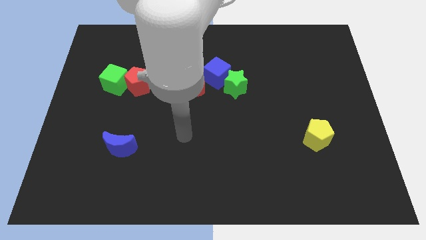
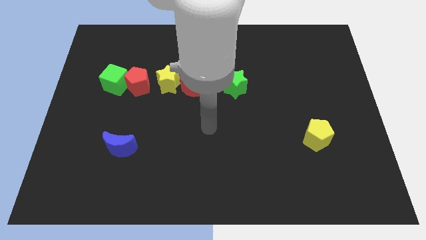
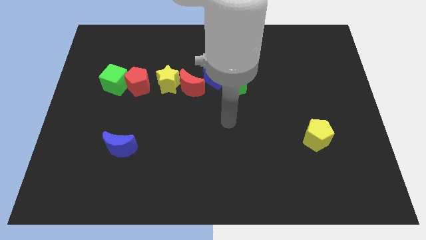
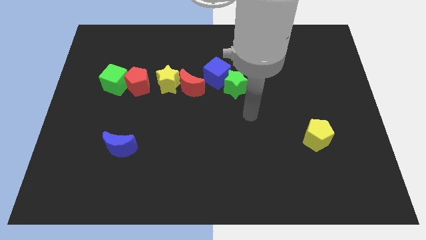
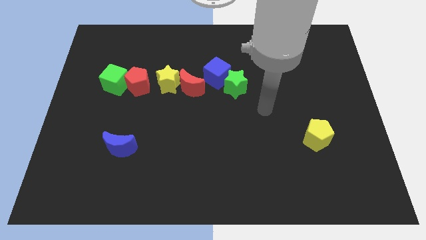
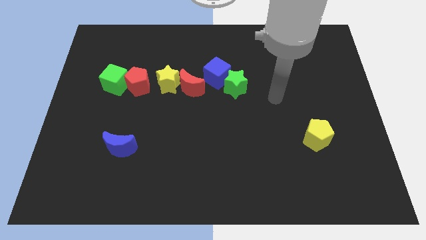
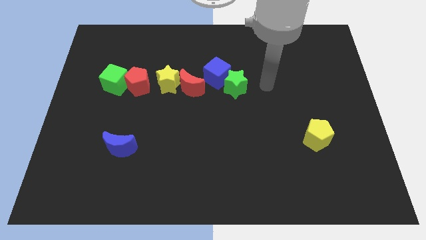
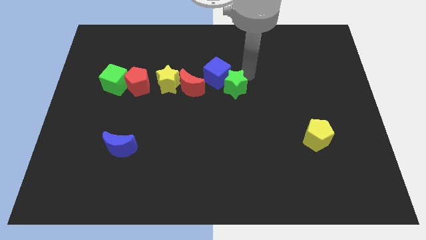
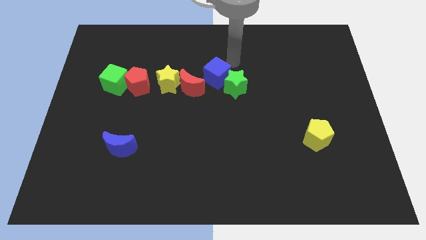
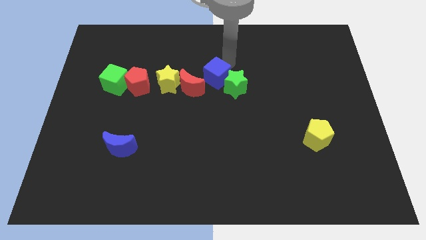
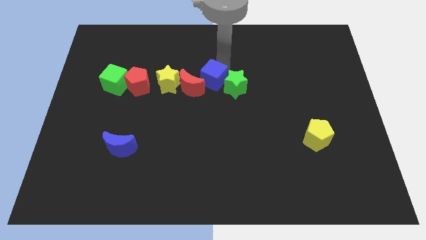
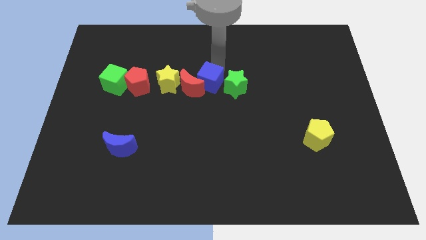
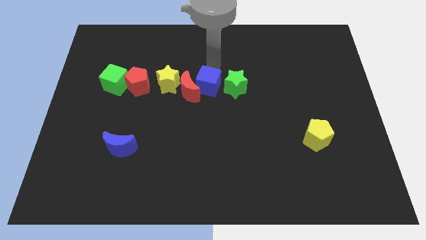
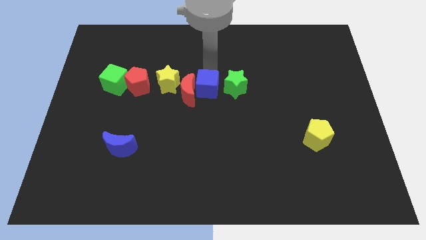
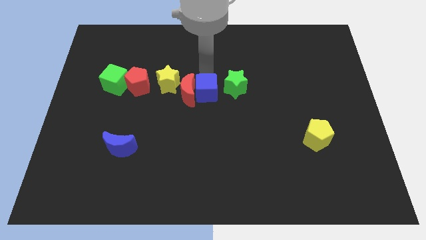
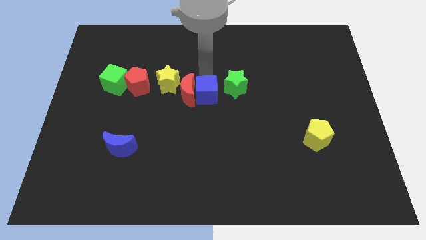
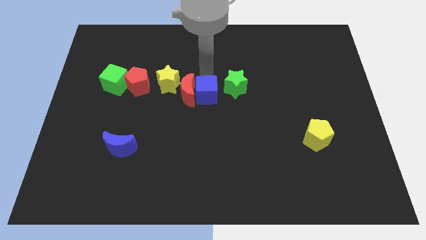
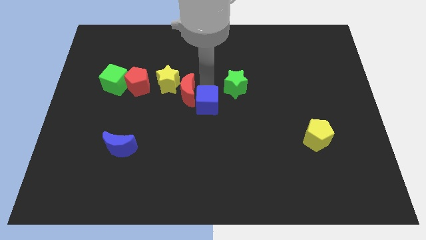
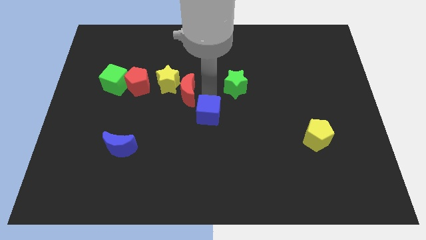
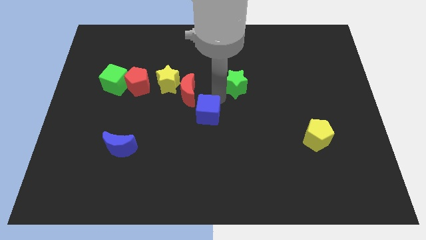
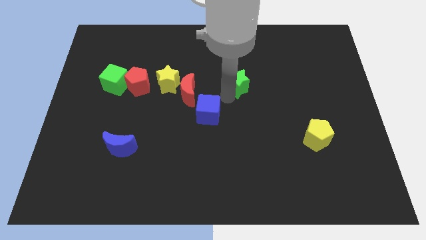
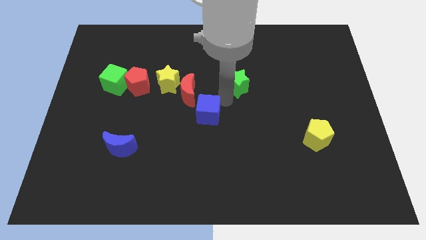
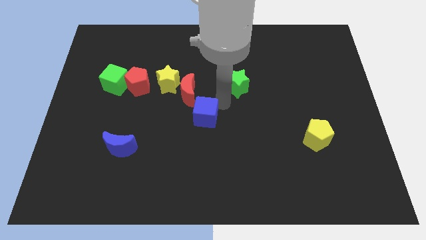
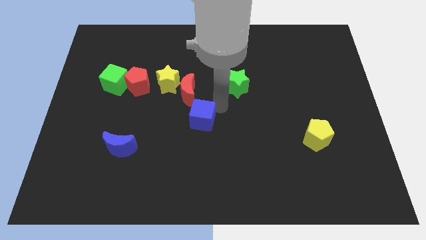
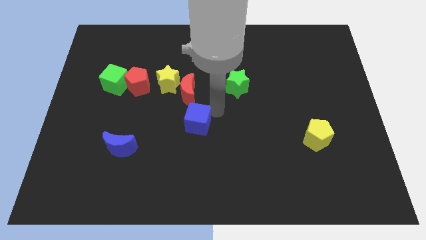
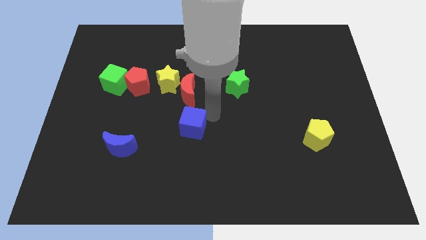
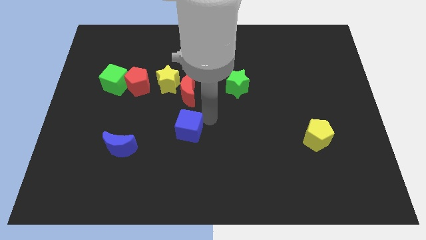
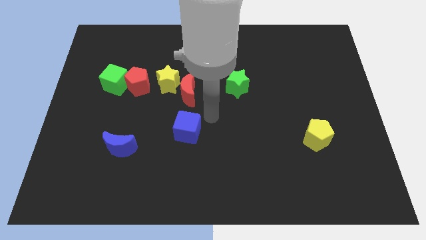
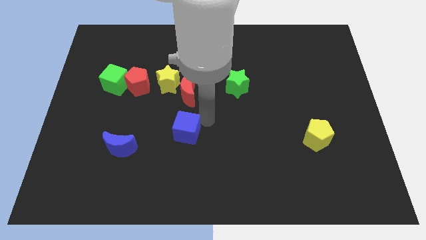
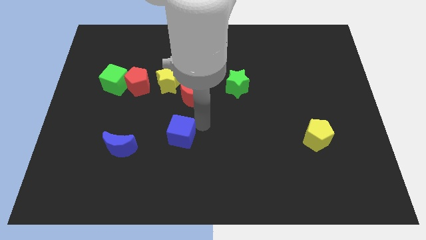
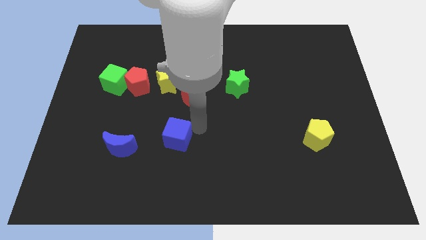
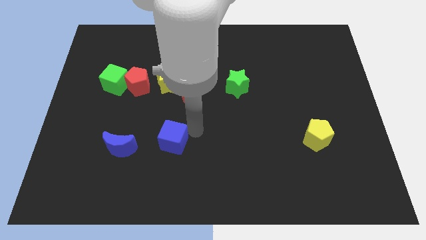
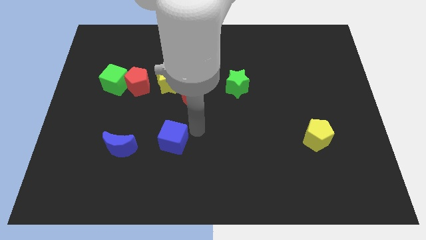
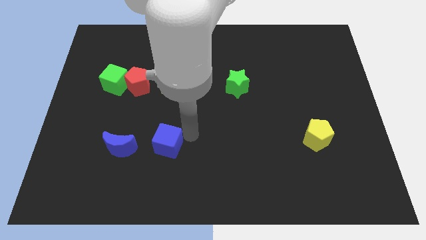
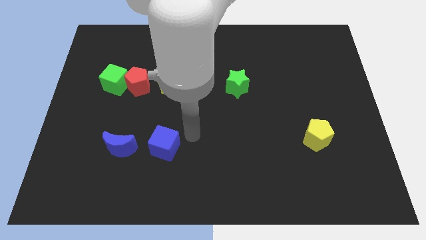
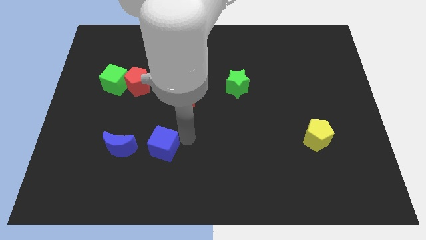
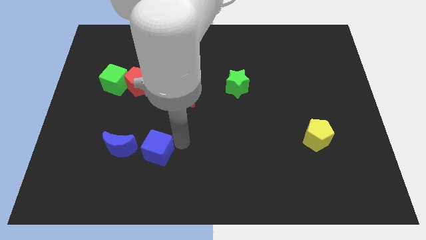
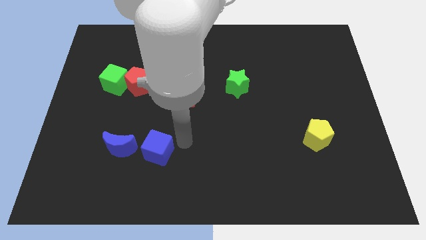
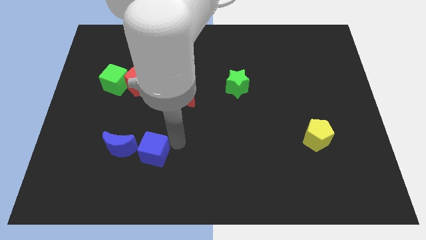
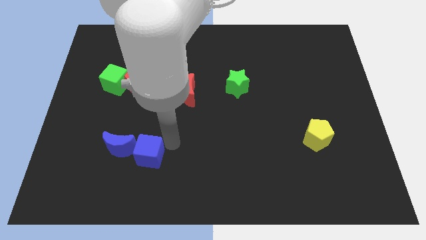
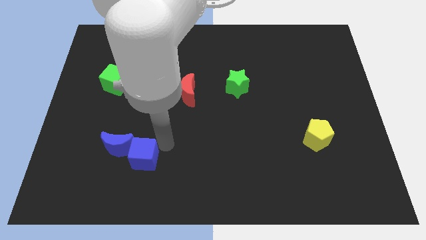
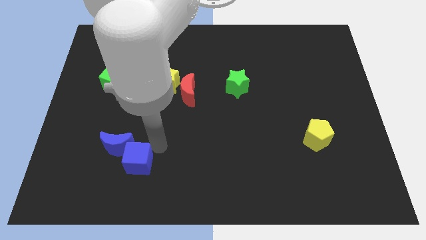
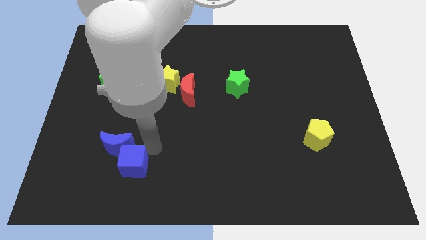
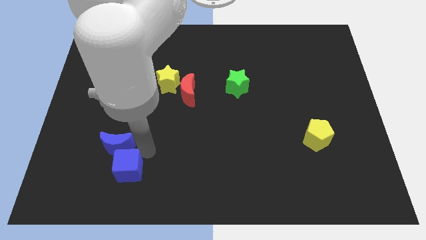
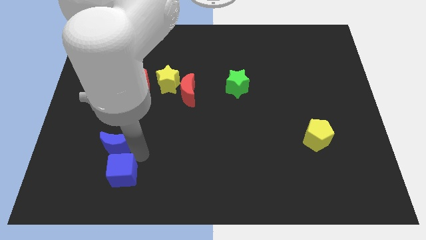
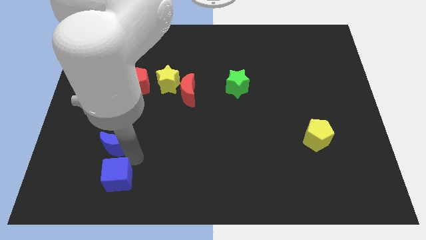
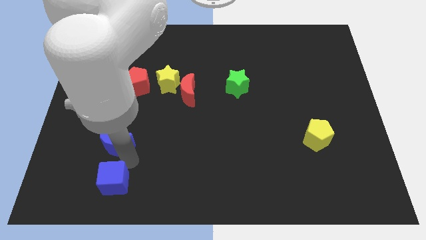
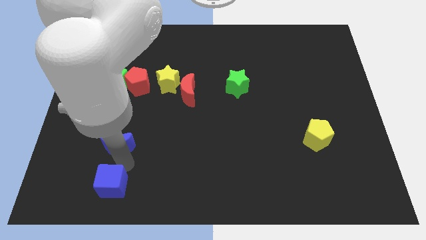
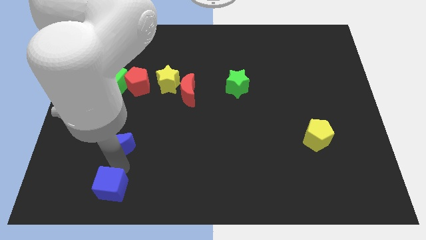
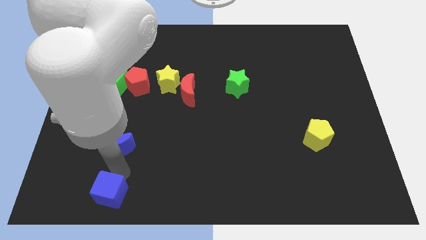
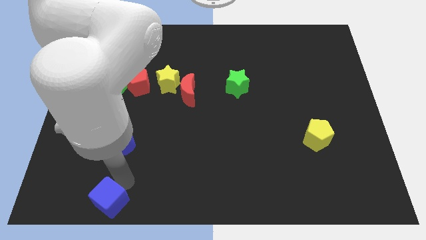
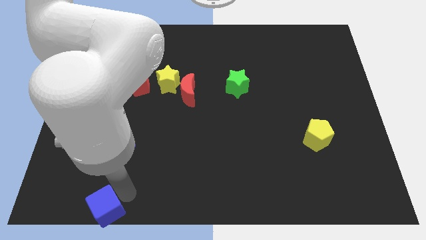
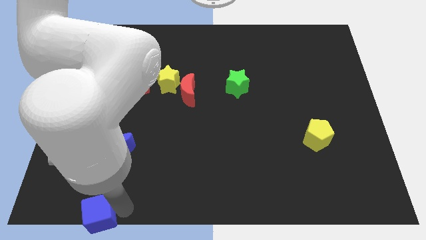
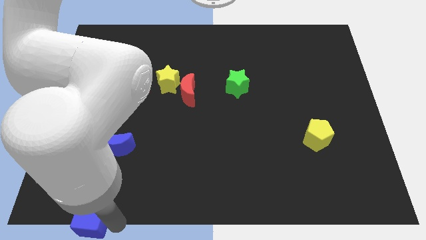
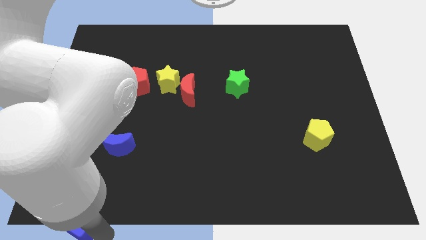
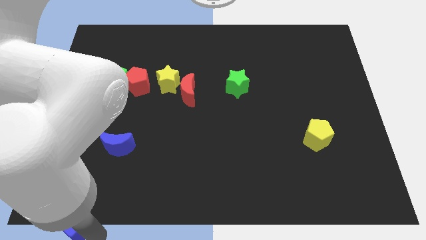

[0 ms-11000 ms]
put the blue cube to the lower left corner
